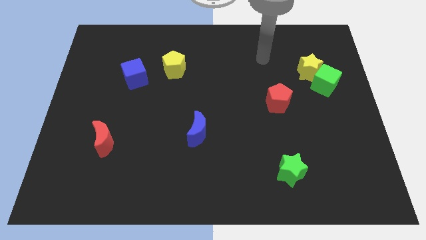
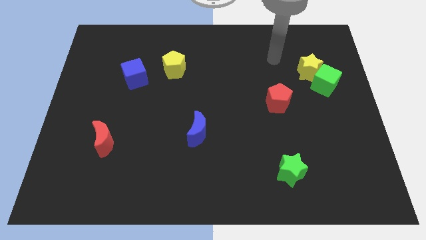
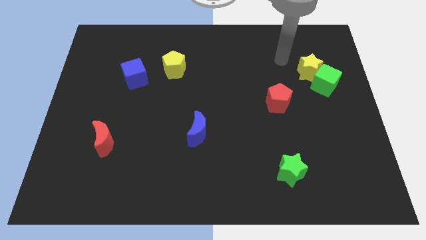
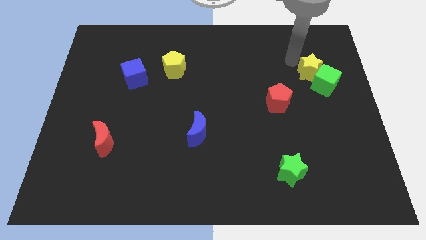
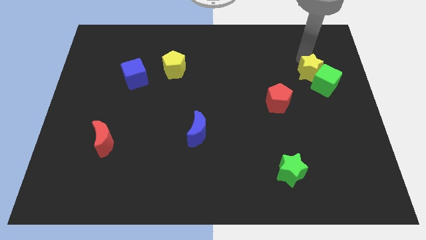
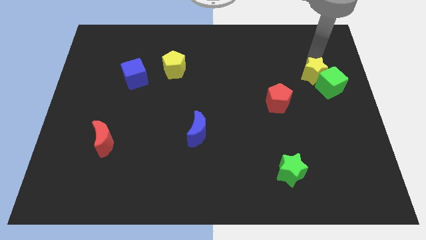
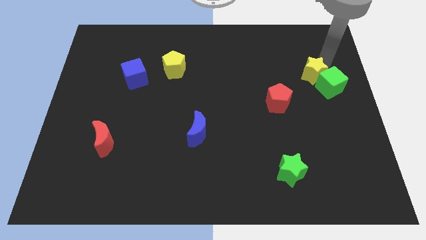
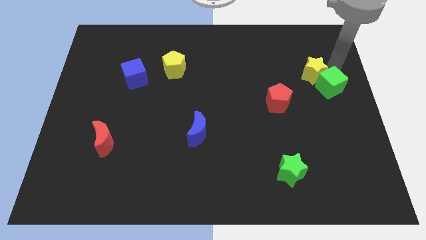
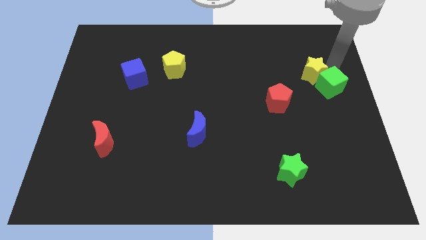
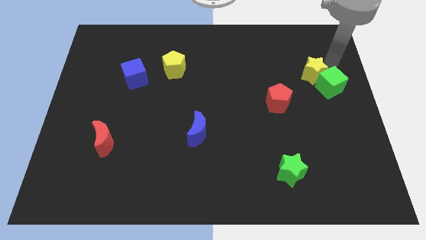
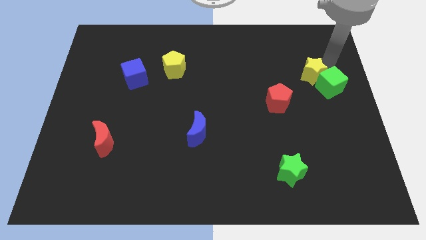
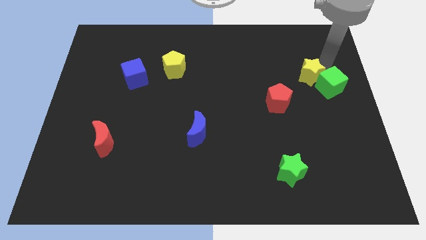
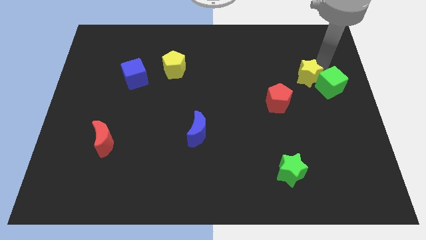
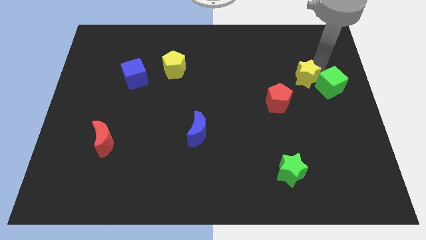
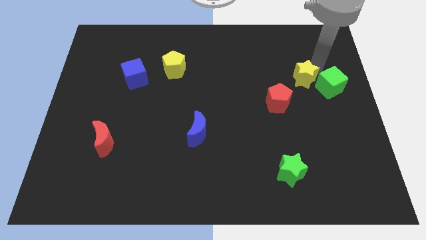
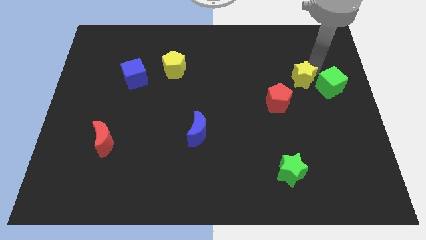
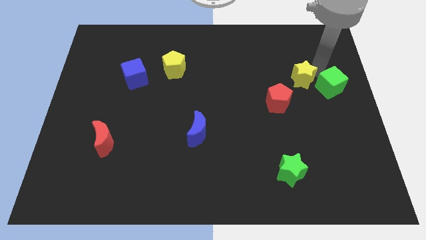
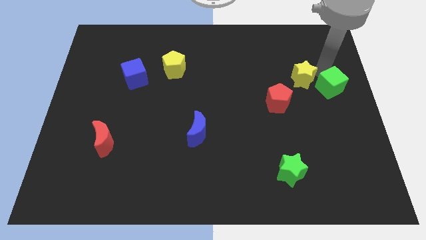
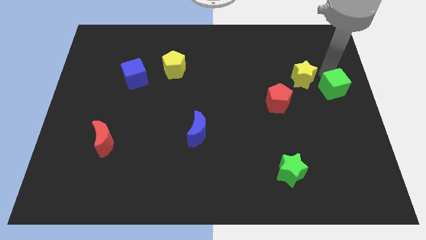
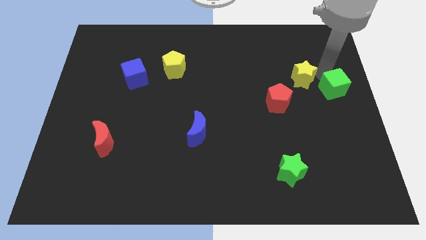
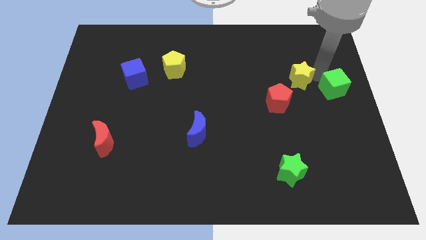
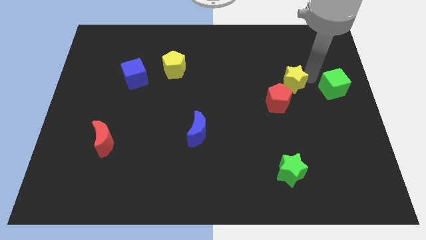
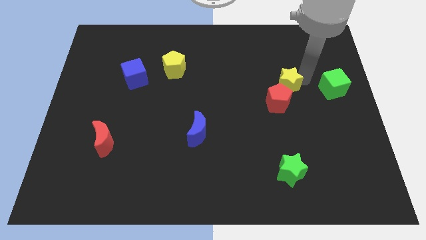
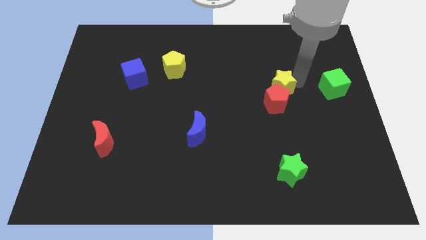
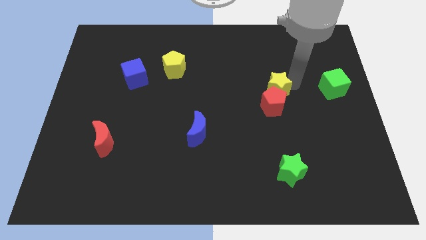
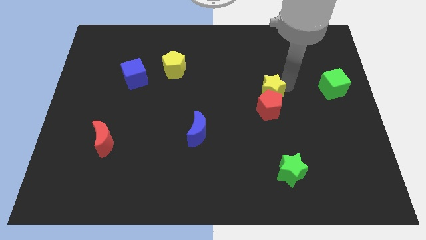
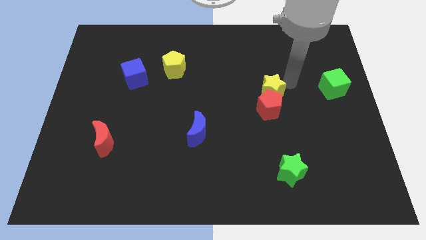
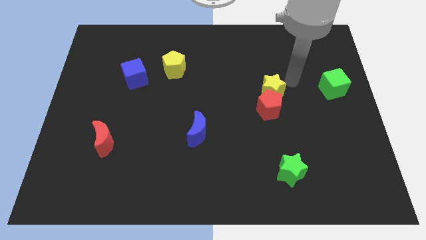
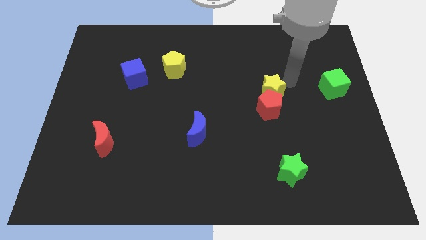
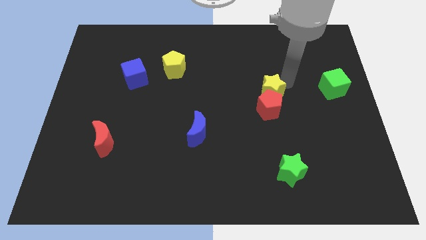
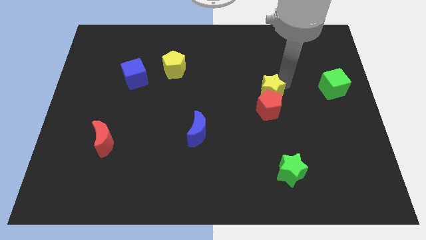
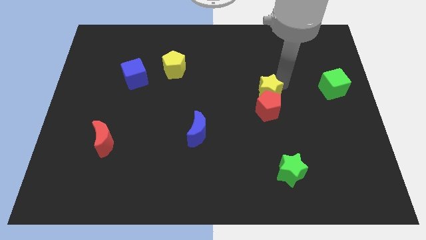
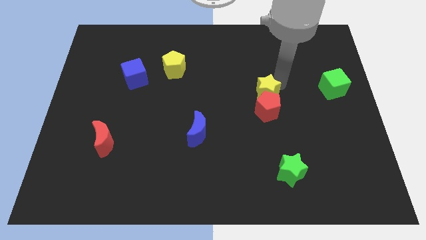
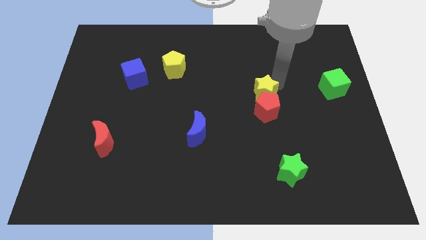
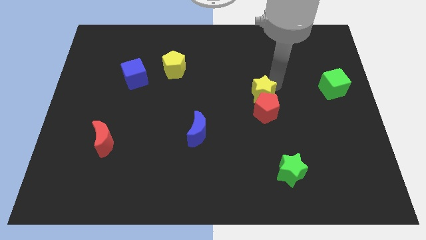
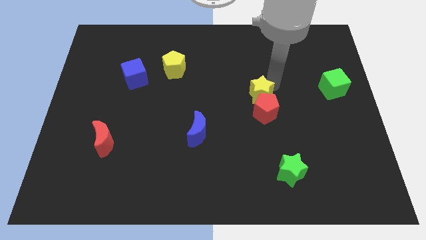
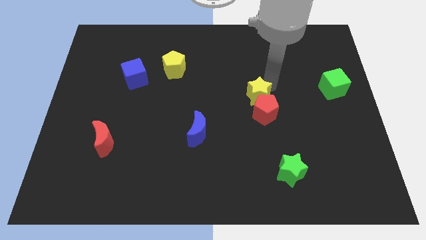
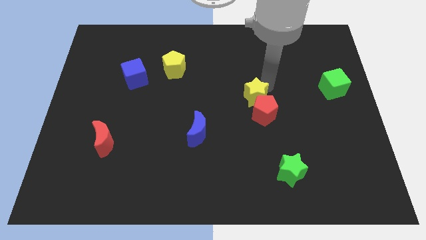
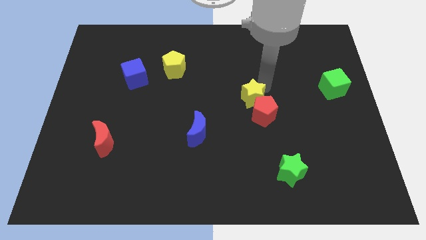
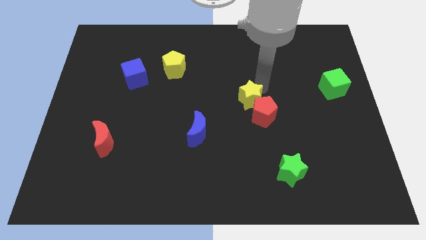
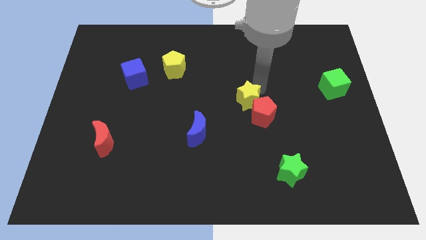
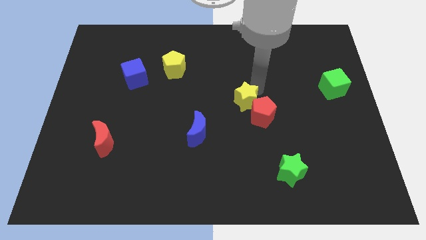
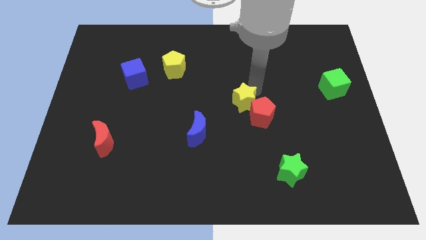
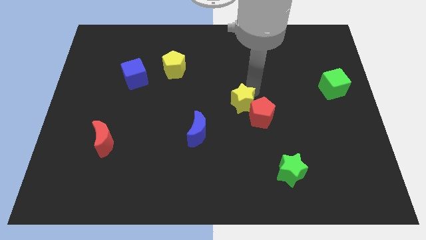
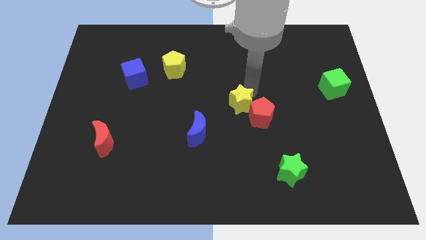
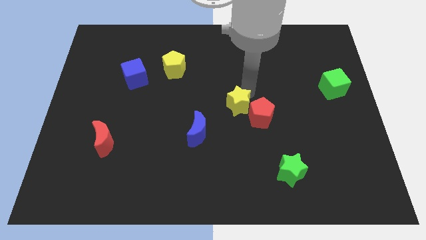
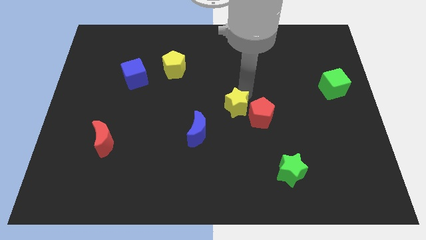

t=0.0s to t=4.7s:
push the yellow star downwards and left

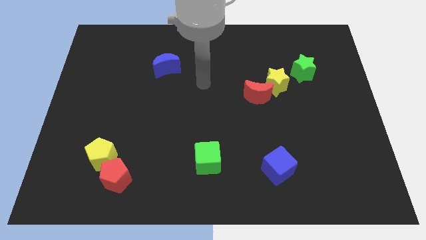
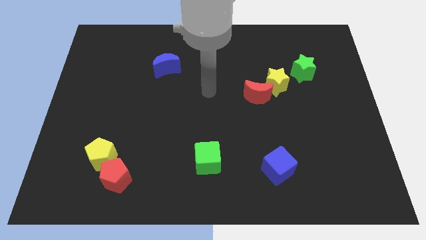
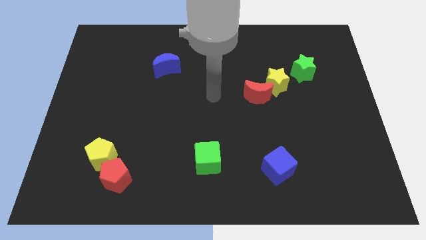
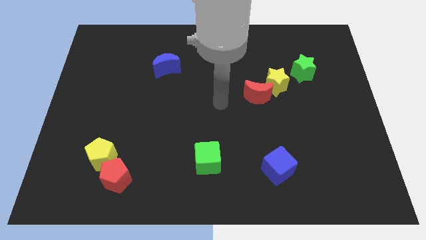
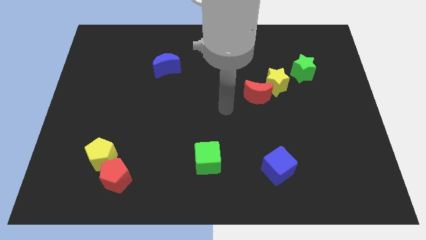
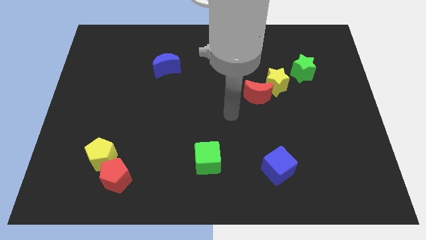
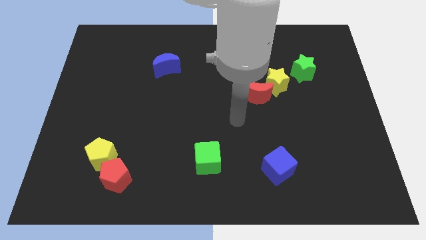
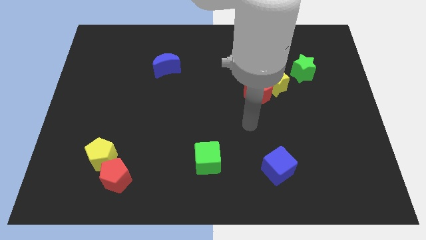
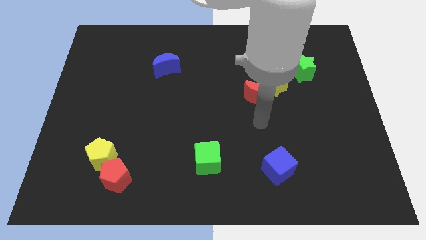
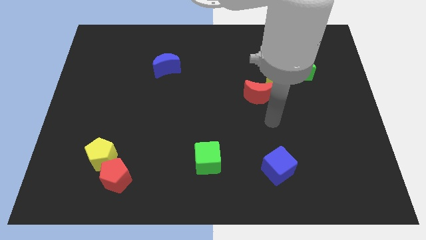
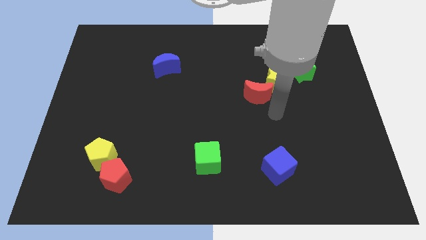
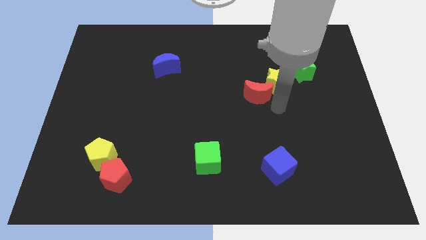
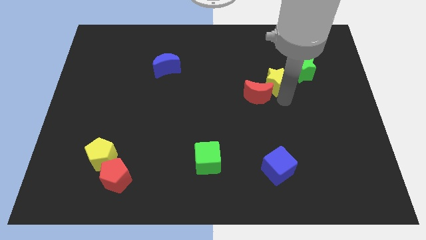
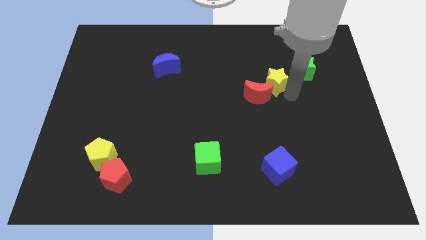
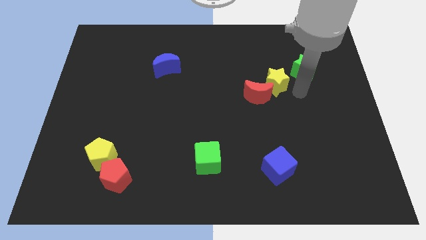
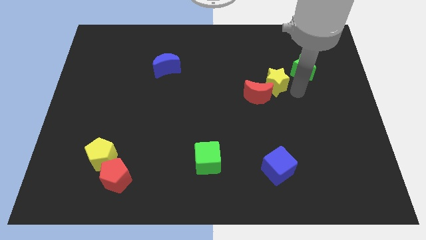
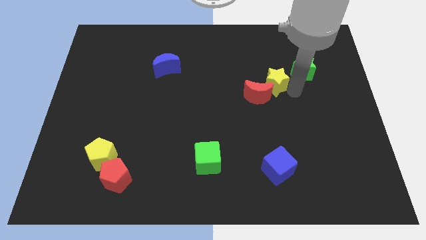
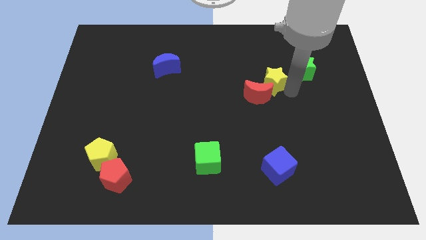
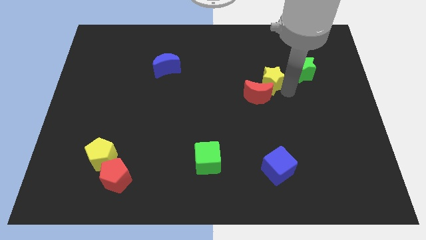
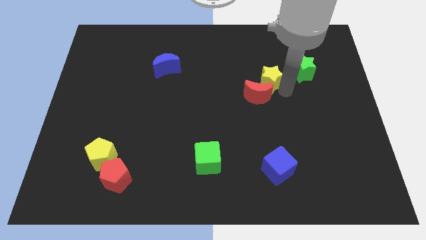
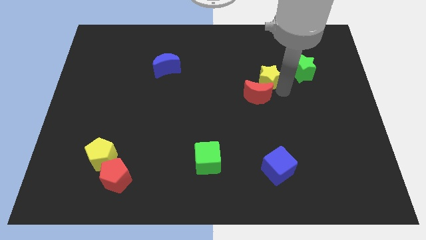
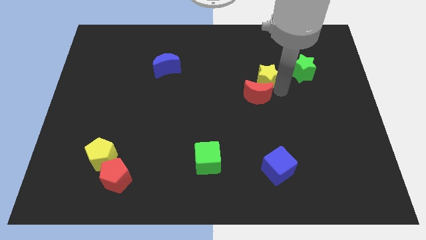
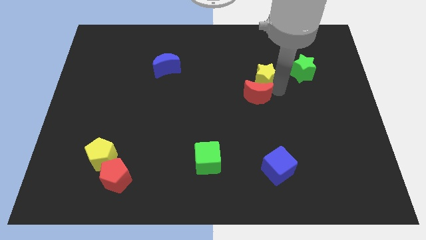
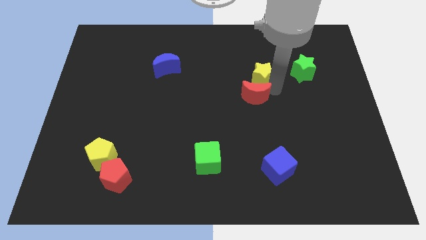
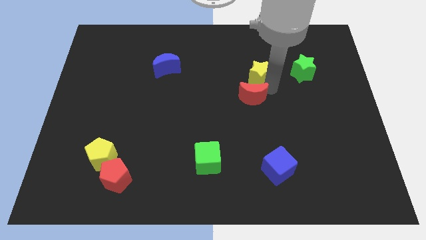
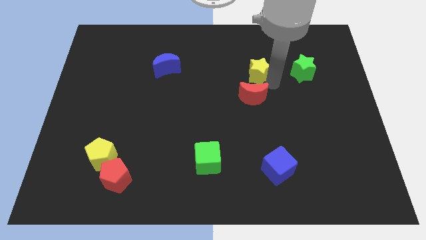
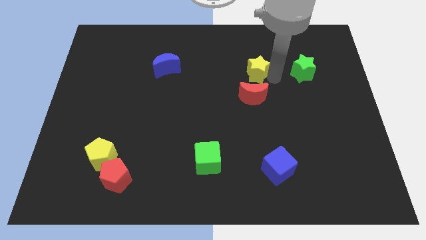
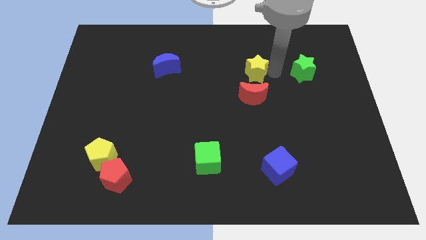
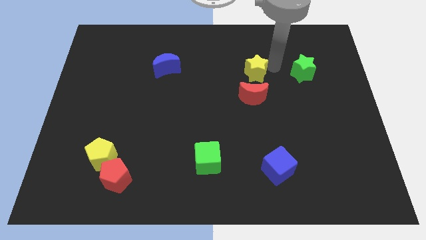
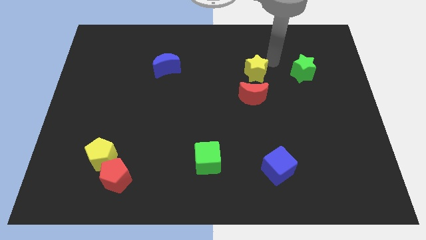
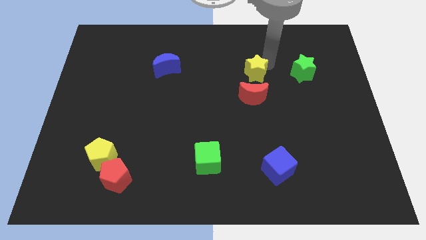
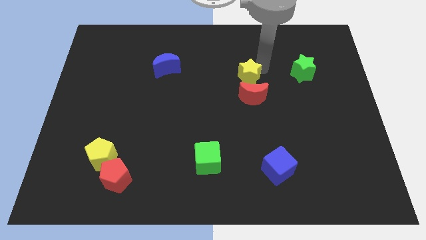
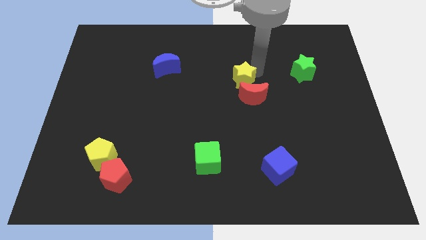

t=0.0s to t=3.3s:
slightly move the yellow star left

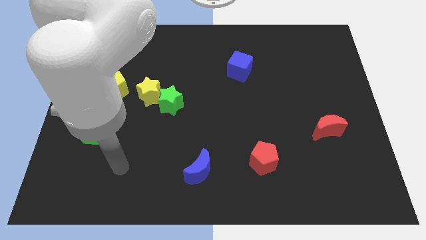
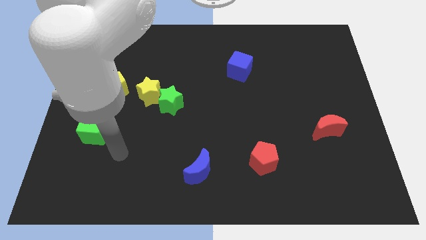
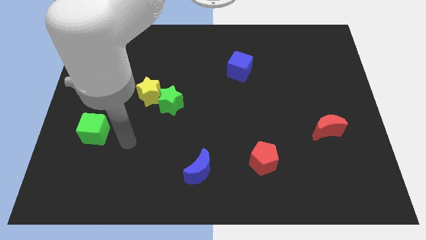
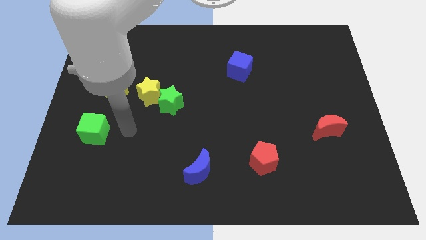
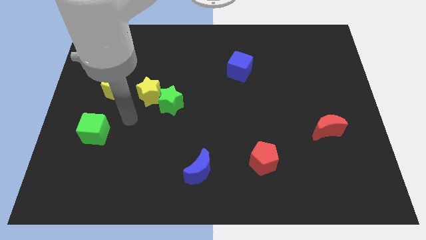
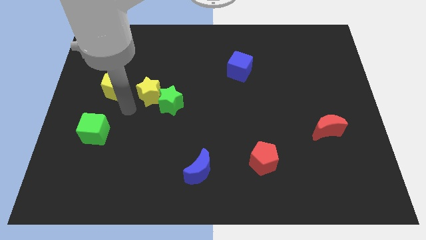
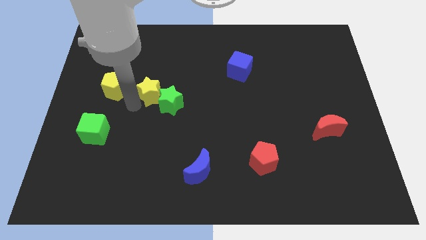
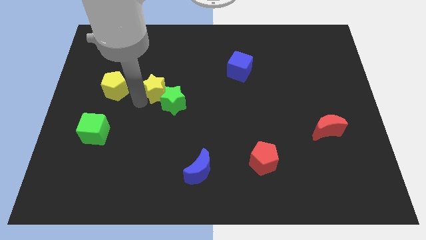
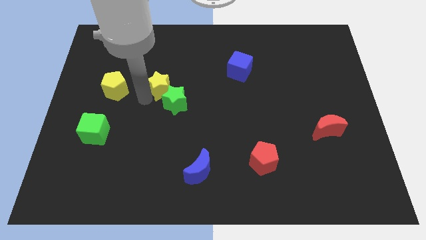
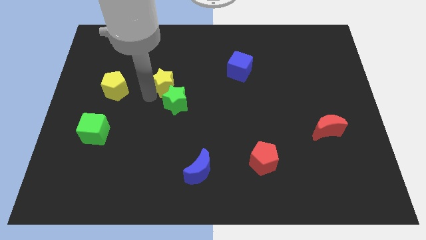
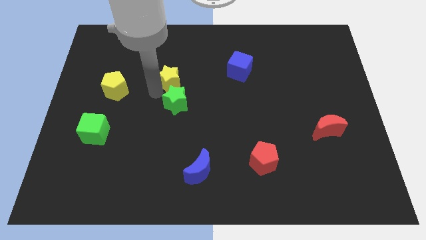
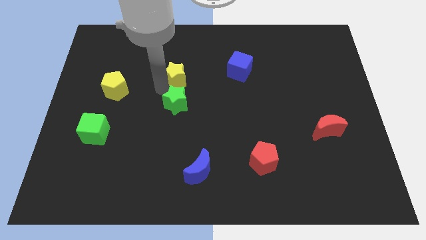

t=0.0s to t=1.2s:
slide the yellow star upwards and to the right slightly
